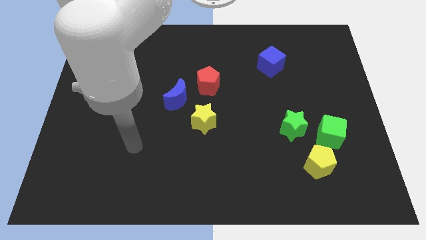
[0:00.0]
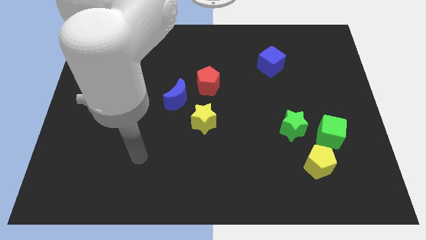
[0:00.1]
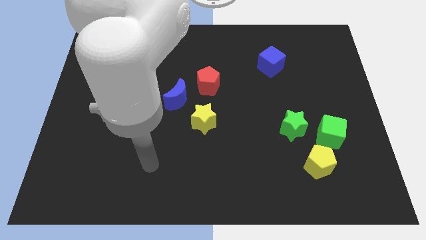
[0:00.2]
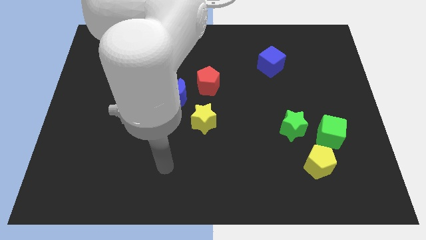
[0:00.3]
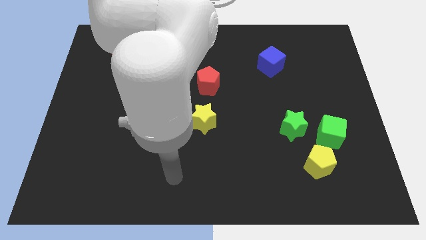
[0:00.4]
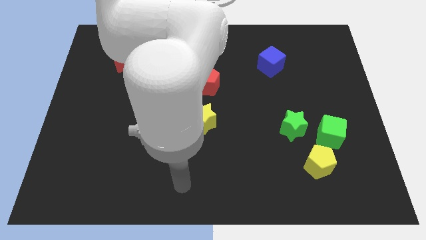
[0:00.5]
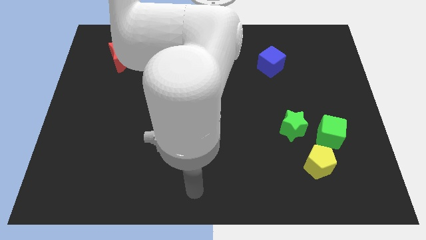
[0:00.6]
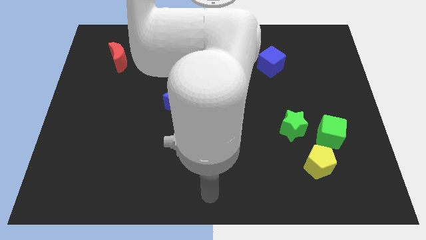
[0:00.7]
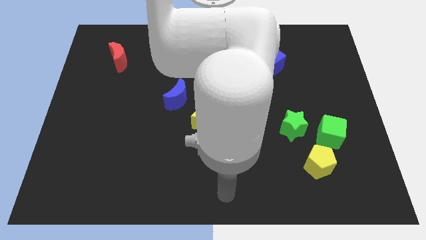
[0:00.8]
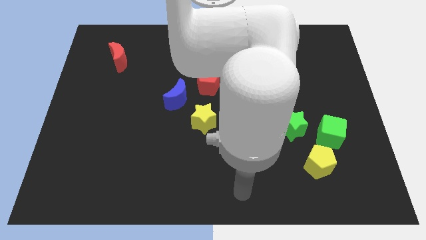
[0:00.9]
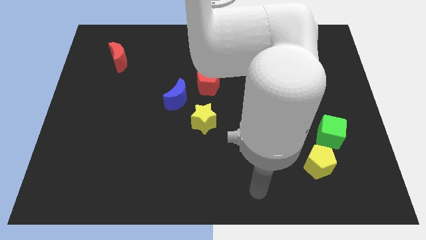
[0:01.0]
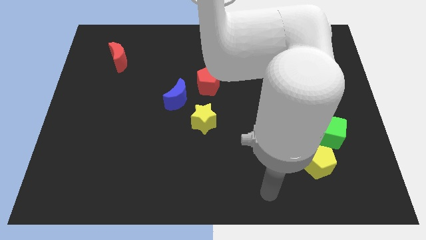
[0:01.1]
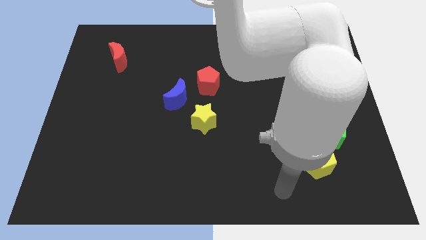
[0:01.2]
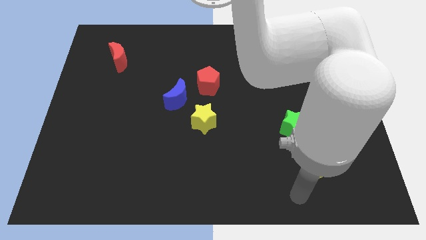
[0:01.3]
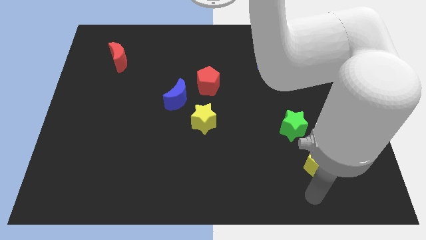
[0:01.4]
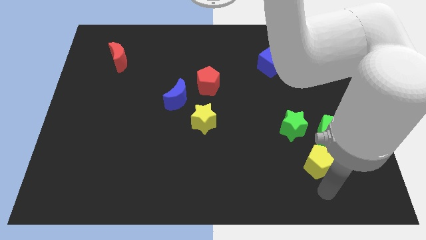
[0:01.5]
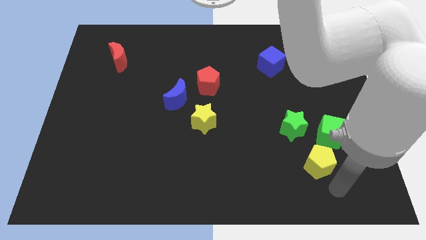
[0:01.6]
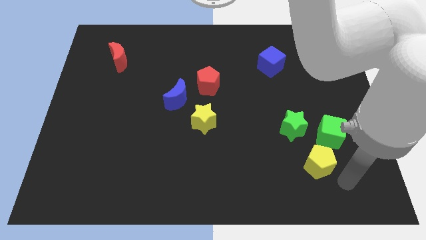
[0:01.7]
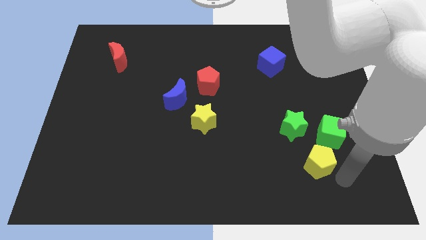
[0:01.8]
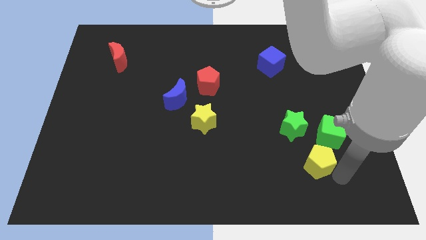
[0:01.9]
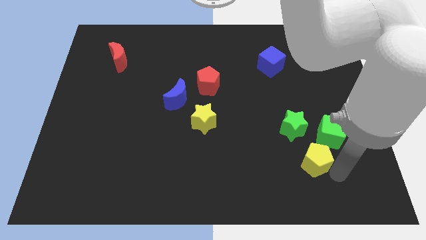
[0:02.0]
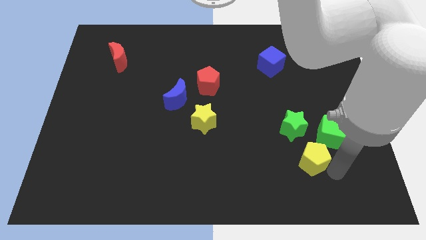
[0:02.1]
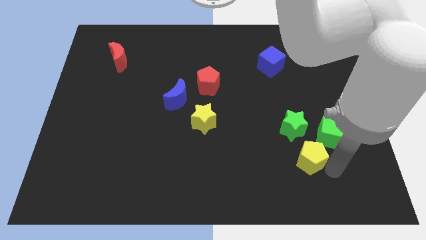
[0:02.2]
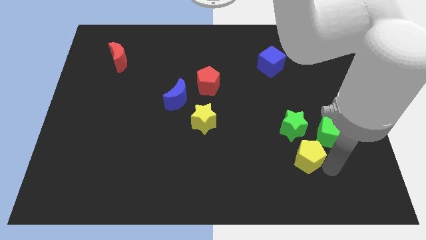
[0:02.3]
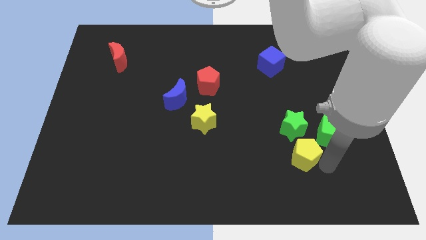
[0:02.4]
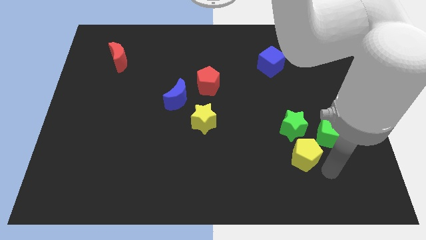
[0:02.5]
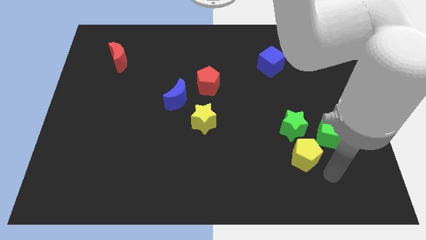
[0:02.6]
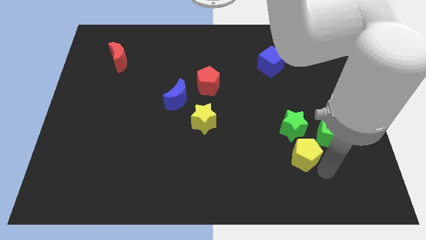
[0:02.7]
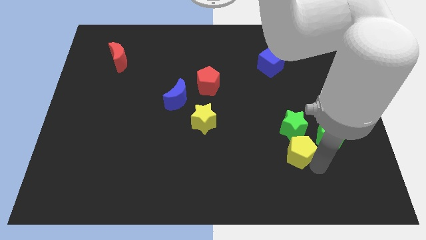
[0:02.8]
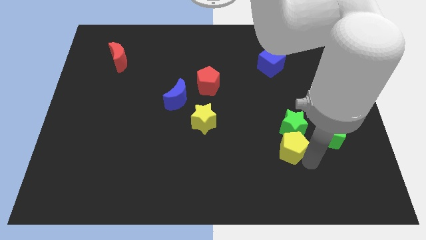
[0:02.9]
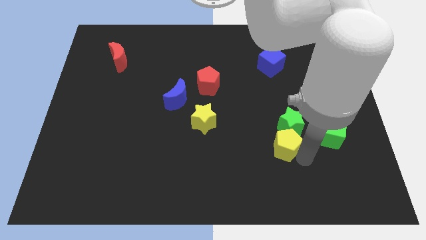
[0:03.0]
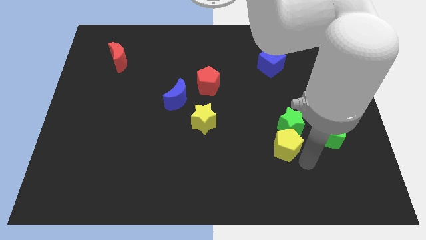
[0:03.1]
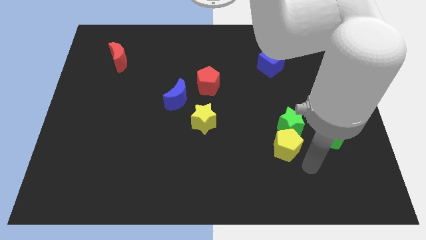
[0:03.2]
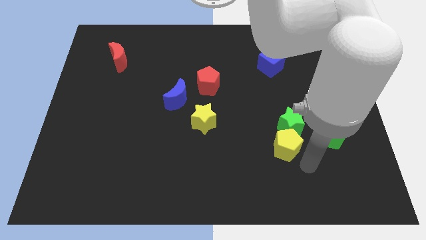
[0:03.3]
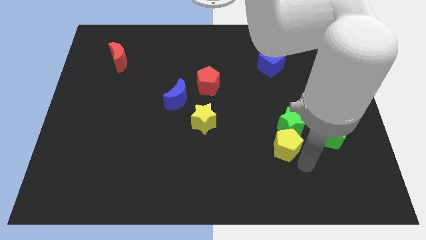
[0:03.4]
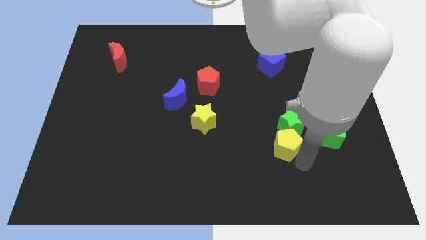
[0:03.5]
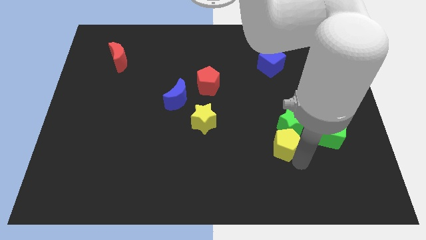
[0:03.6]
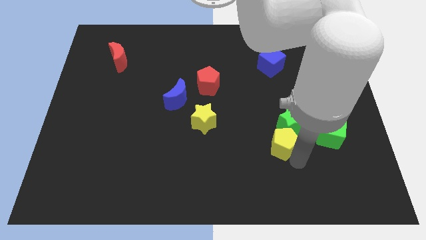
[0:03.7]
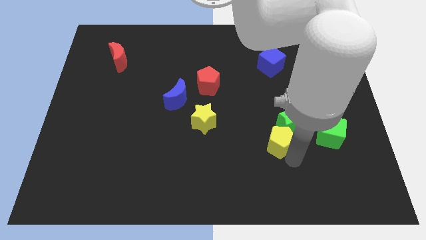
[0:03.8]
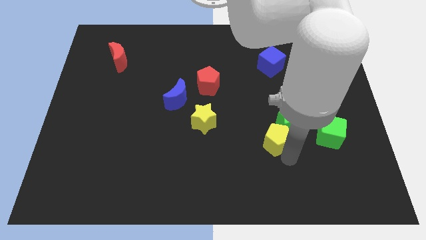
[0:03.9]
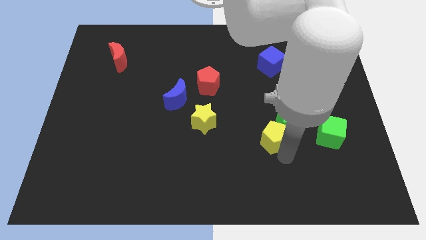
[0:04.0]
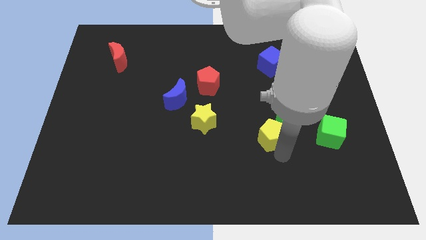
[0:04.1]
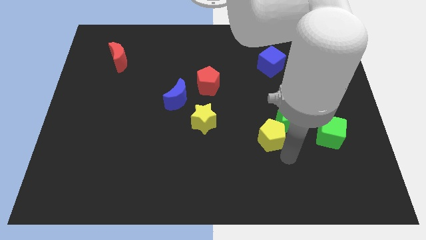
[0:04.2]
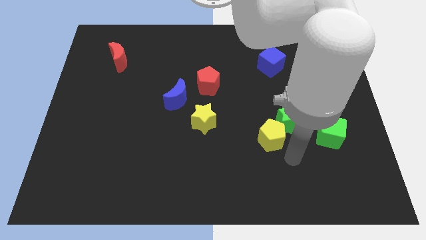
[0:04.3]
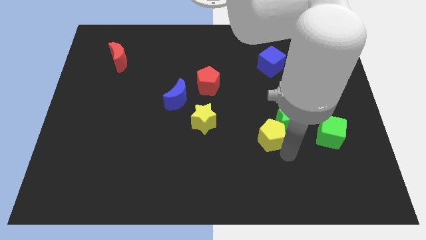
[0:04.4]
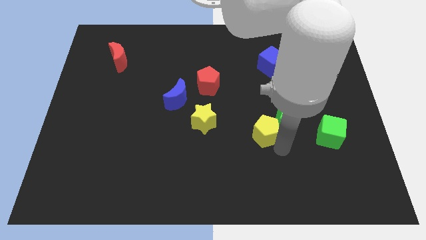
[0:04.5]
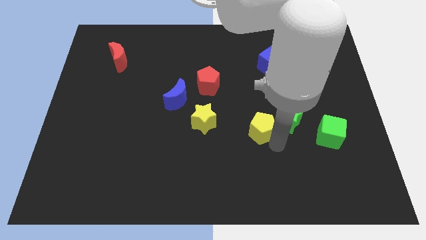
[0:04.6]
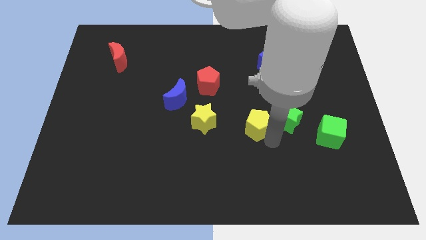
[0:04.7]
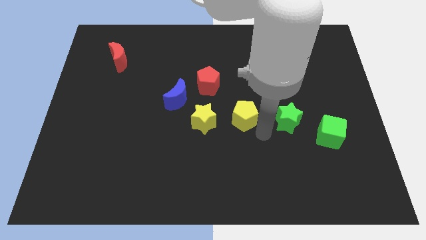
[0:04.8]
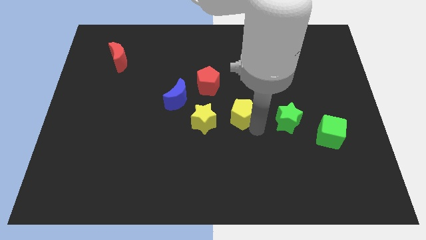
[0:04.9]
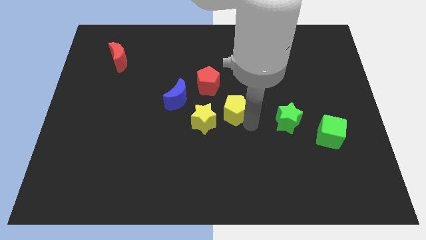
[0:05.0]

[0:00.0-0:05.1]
push the yellow pentagon to the right of the blue moon

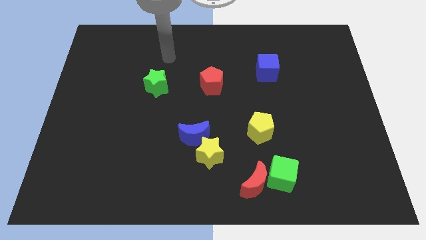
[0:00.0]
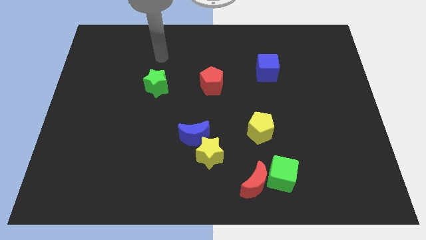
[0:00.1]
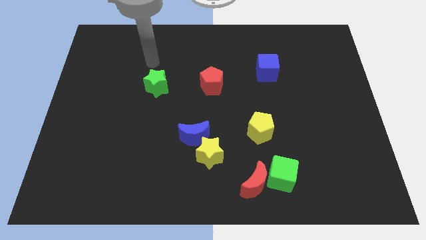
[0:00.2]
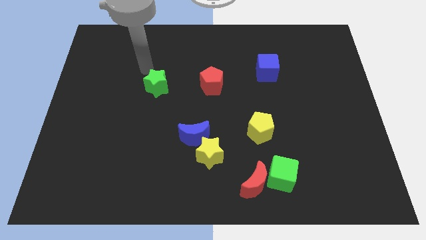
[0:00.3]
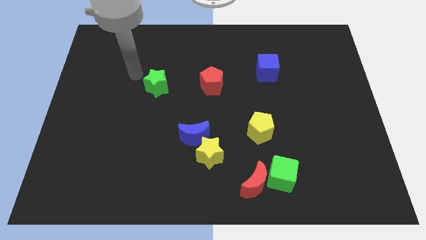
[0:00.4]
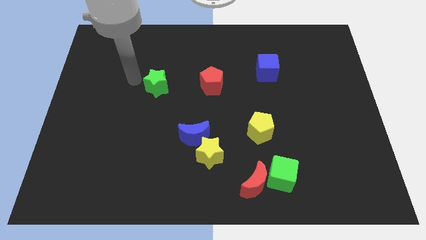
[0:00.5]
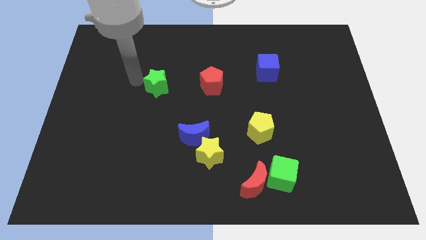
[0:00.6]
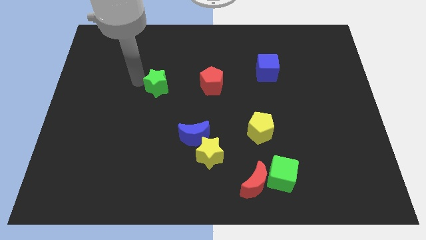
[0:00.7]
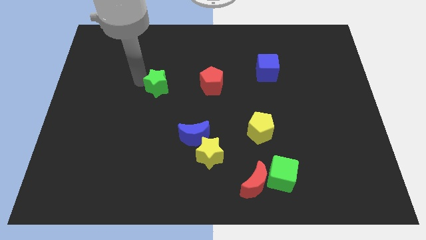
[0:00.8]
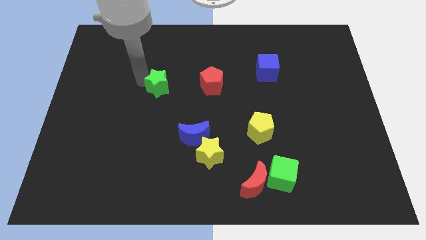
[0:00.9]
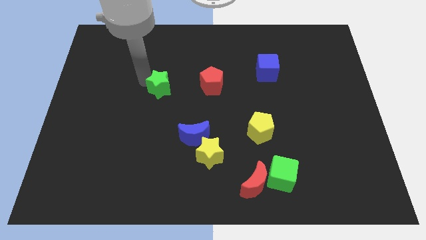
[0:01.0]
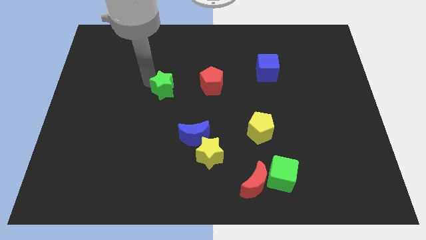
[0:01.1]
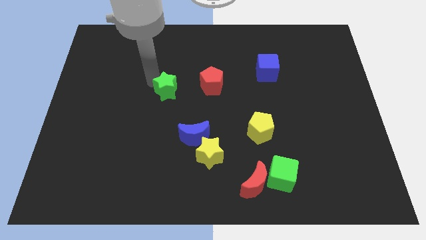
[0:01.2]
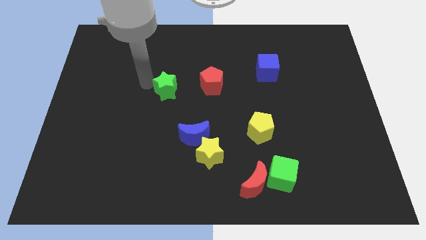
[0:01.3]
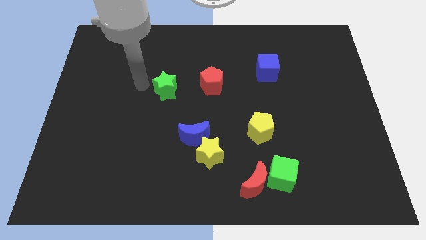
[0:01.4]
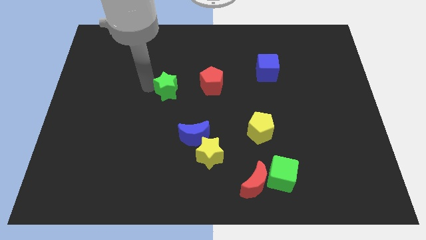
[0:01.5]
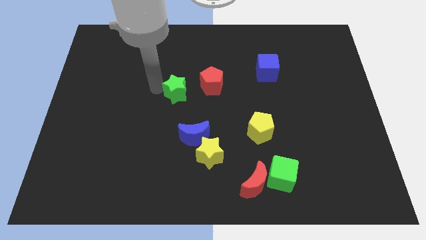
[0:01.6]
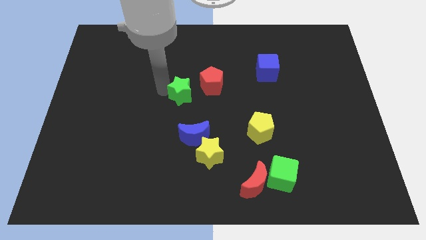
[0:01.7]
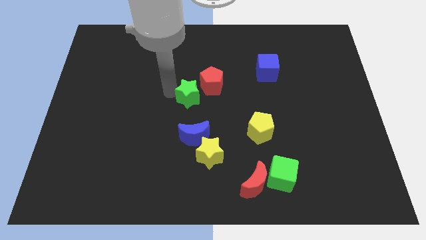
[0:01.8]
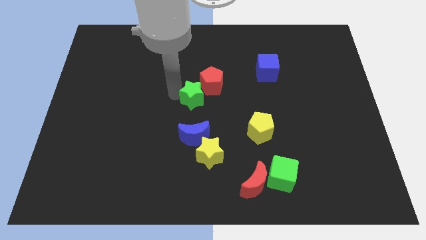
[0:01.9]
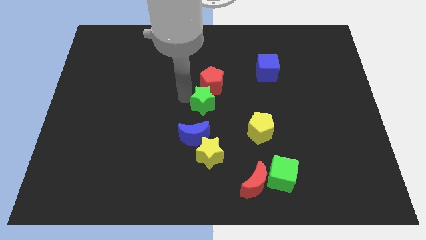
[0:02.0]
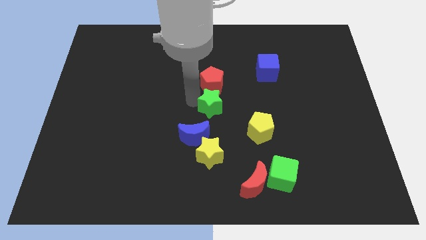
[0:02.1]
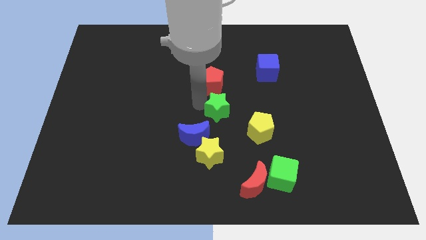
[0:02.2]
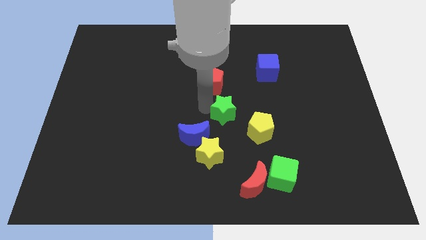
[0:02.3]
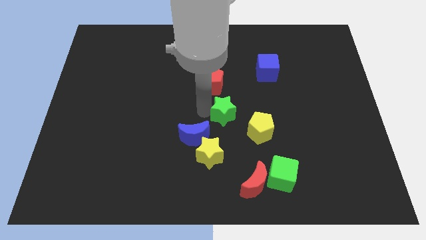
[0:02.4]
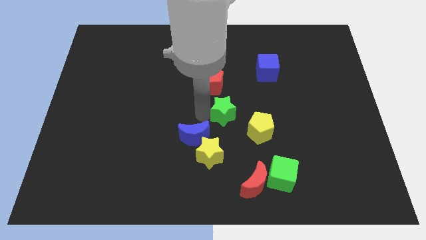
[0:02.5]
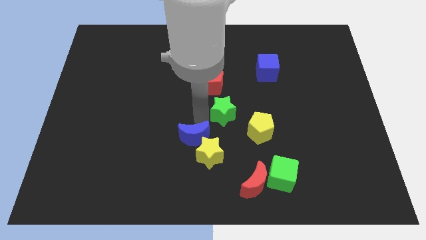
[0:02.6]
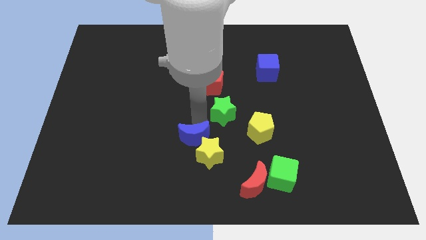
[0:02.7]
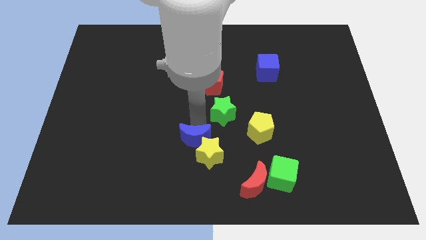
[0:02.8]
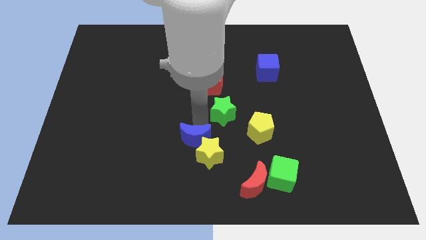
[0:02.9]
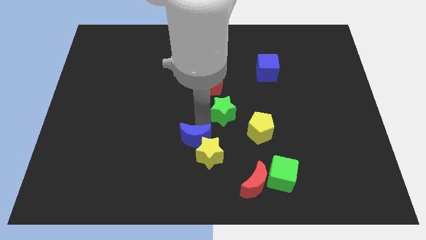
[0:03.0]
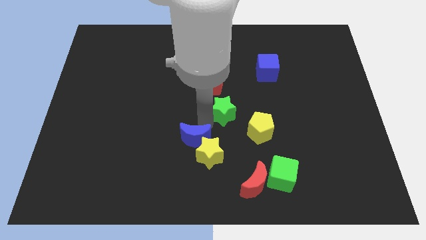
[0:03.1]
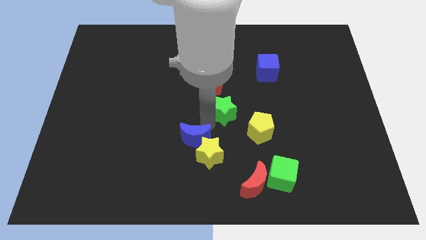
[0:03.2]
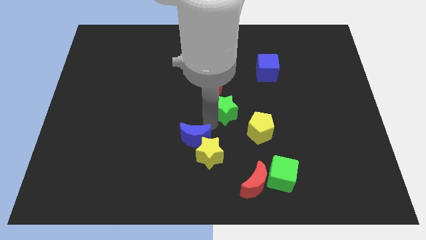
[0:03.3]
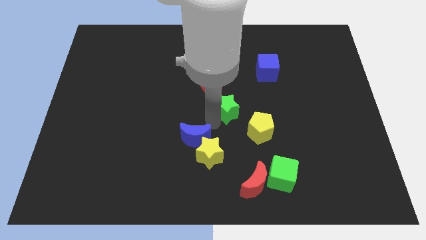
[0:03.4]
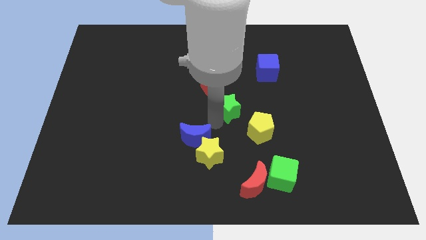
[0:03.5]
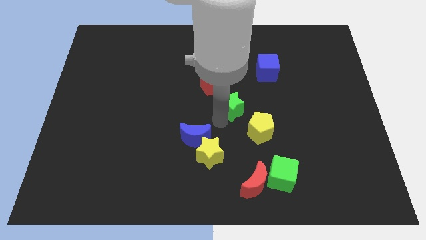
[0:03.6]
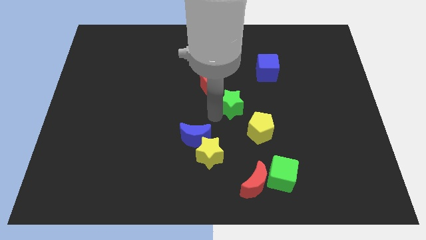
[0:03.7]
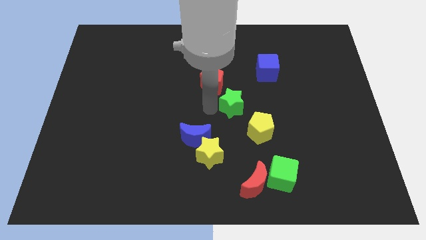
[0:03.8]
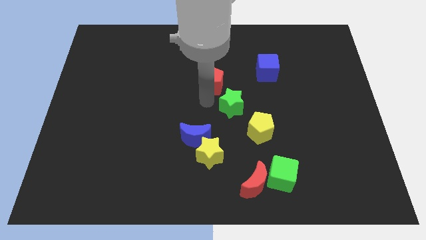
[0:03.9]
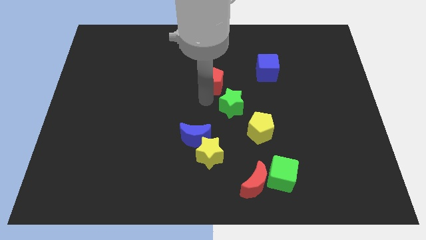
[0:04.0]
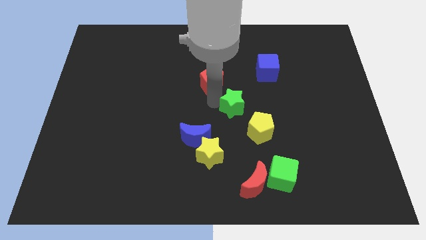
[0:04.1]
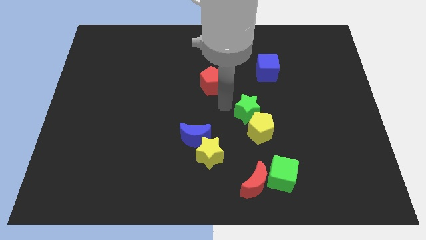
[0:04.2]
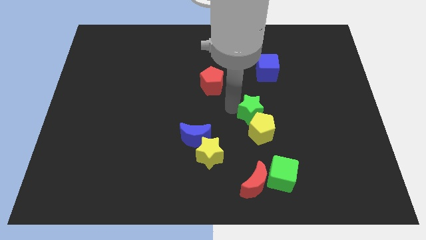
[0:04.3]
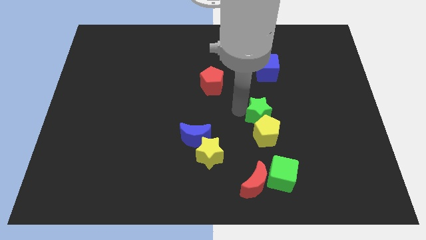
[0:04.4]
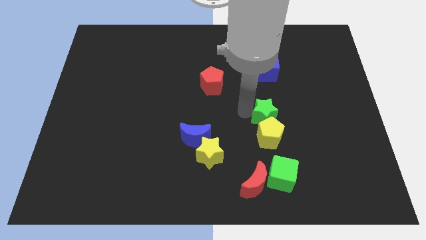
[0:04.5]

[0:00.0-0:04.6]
put the green star above the green cube
